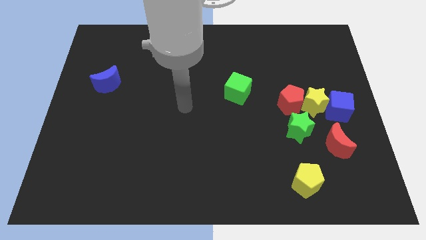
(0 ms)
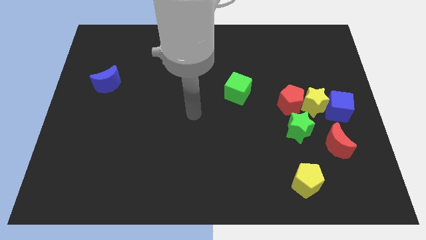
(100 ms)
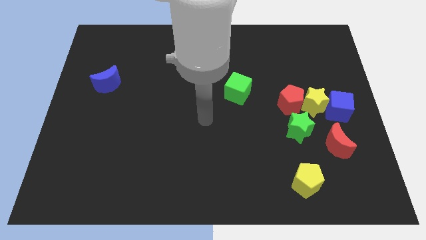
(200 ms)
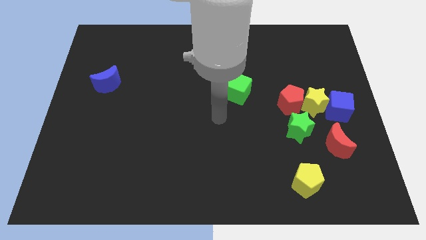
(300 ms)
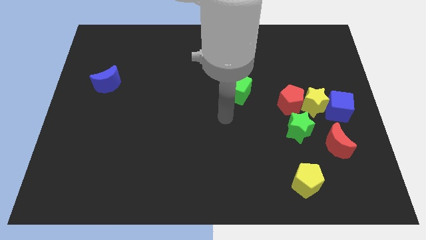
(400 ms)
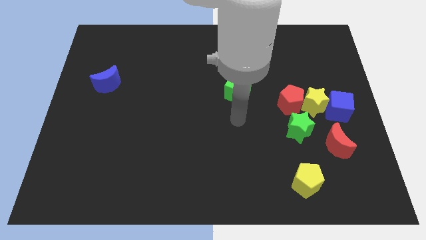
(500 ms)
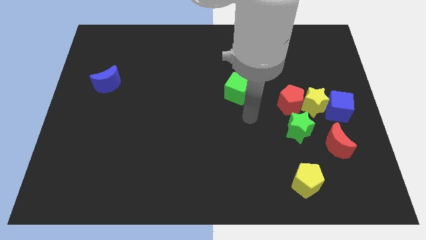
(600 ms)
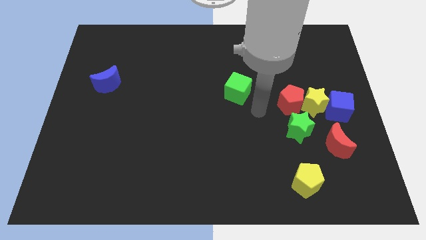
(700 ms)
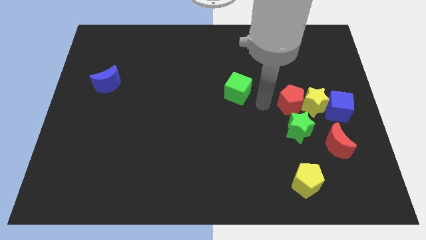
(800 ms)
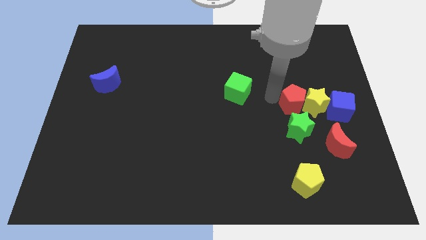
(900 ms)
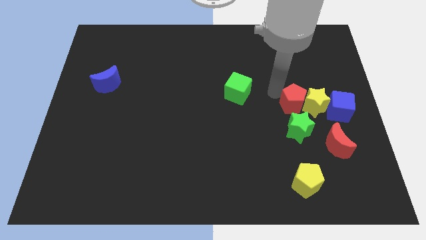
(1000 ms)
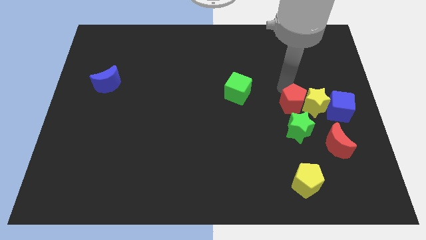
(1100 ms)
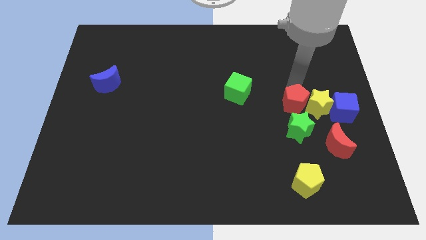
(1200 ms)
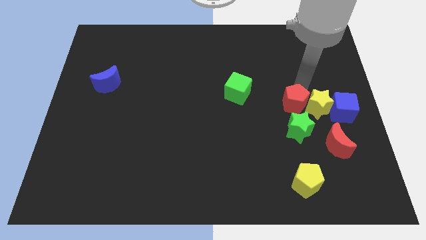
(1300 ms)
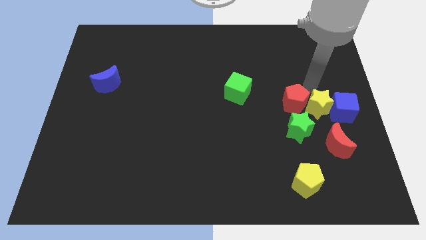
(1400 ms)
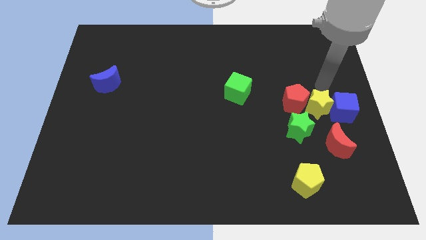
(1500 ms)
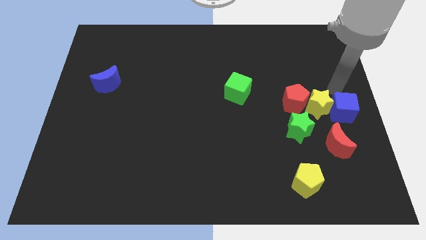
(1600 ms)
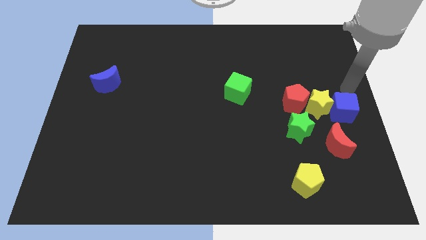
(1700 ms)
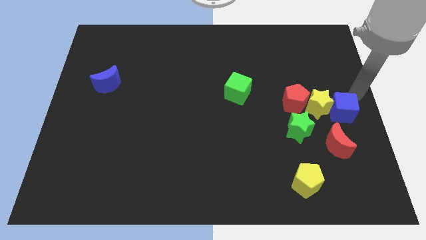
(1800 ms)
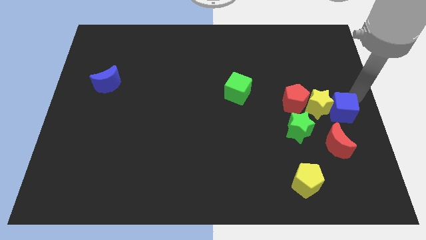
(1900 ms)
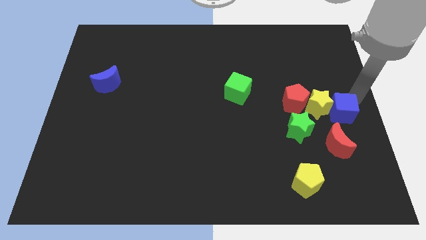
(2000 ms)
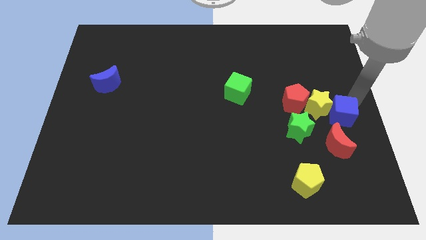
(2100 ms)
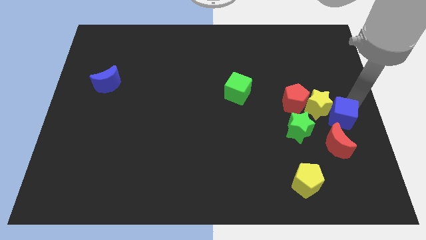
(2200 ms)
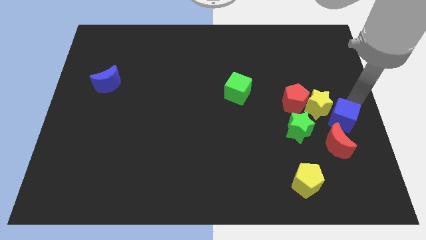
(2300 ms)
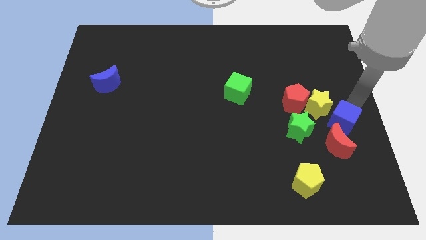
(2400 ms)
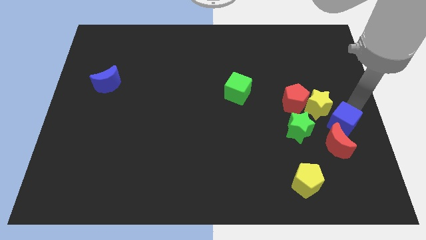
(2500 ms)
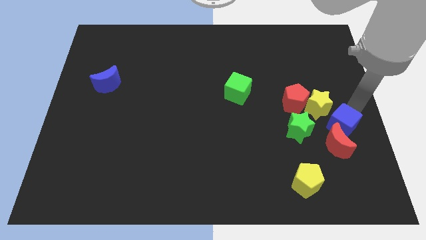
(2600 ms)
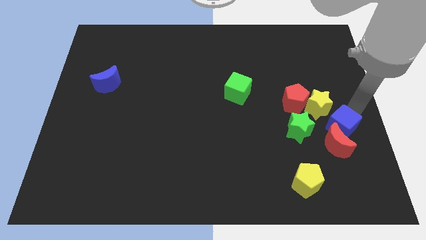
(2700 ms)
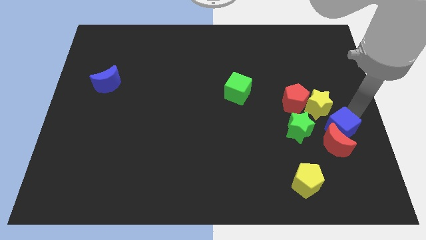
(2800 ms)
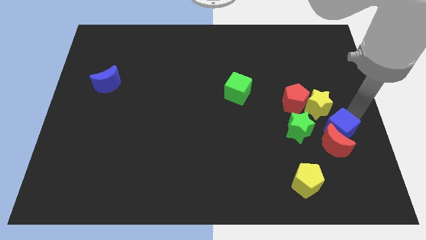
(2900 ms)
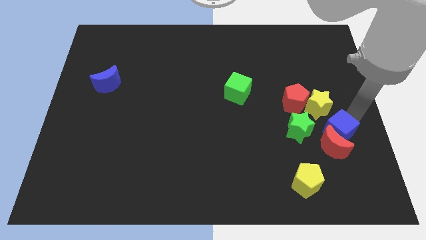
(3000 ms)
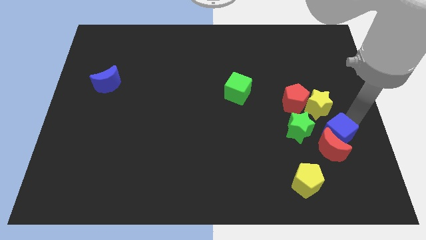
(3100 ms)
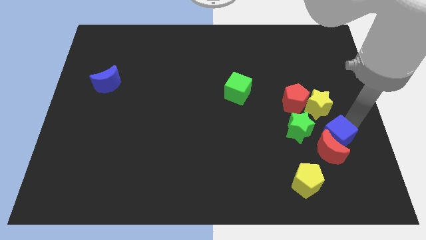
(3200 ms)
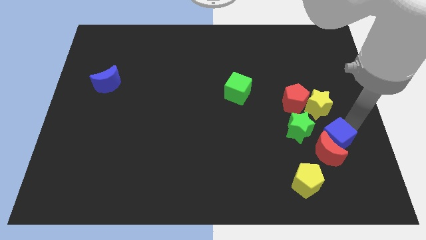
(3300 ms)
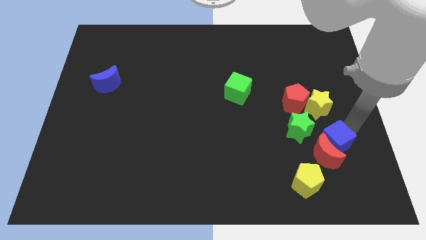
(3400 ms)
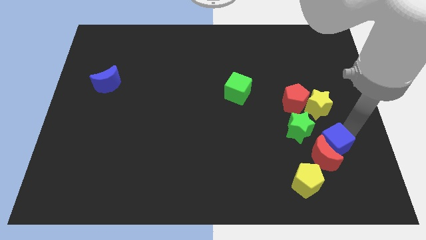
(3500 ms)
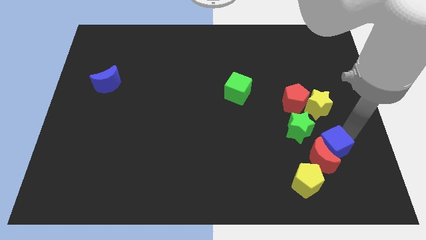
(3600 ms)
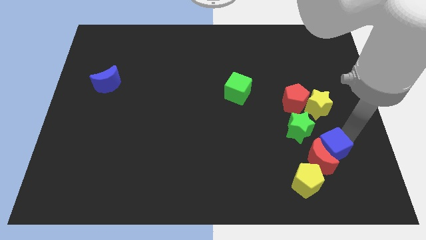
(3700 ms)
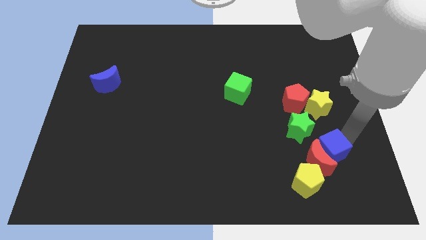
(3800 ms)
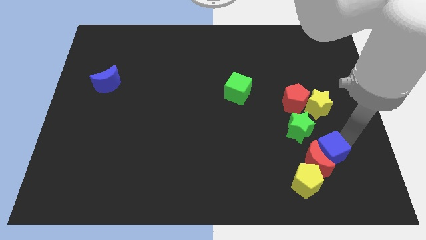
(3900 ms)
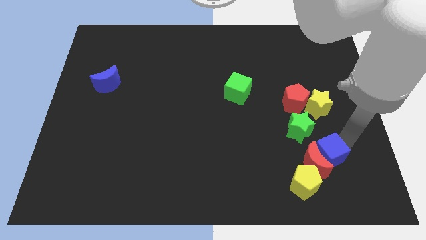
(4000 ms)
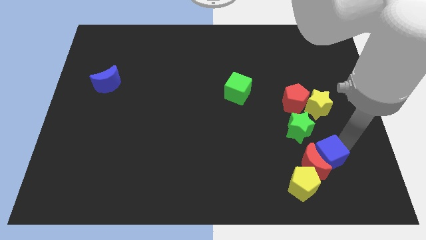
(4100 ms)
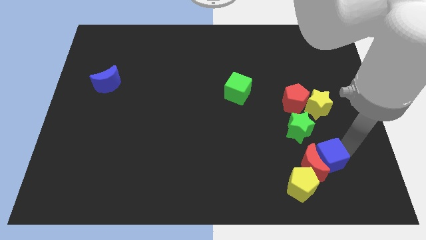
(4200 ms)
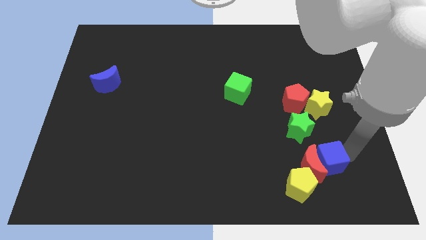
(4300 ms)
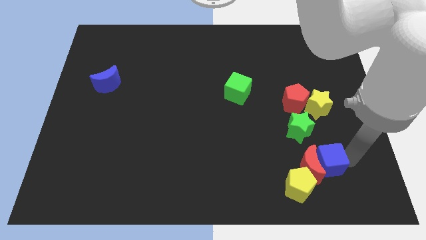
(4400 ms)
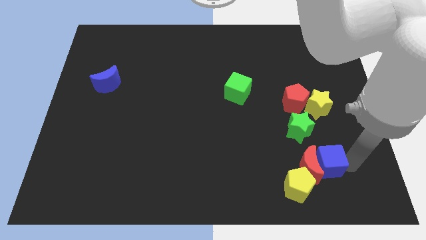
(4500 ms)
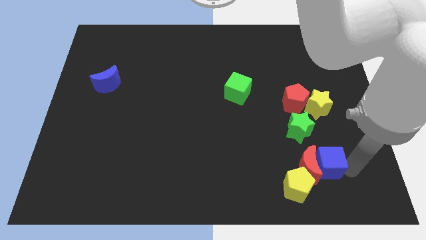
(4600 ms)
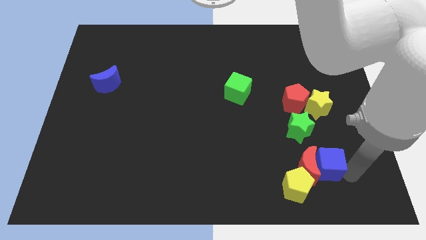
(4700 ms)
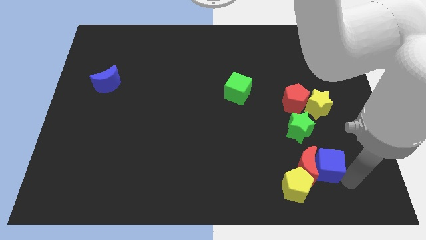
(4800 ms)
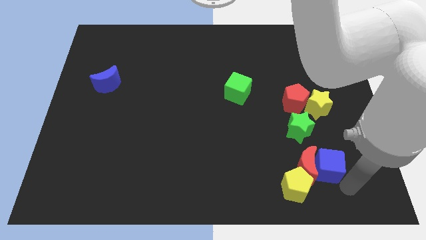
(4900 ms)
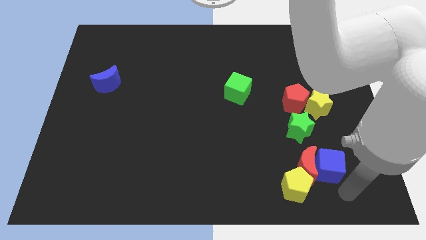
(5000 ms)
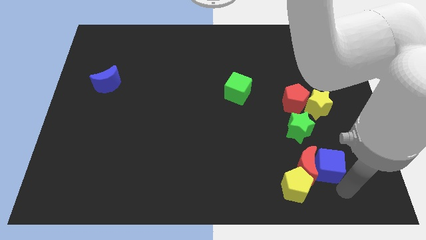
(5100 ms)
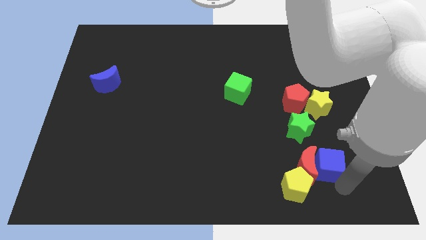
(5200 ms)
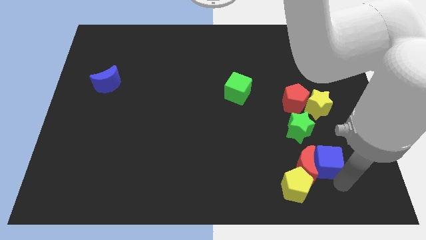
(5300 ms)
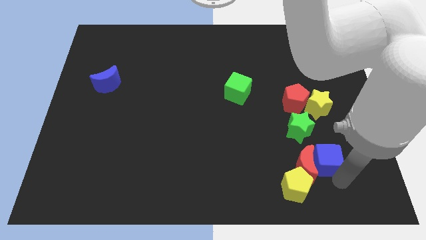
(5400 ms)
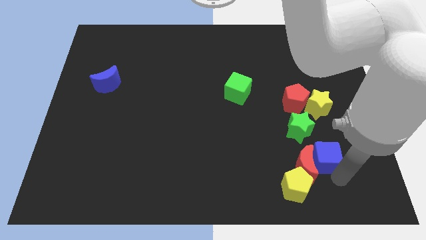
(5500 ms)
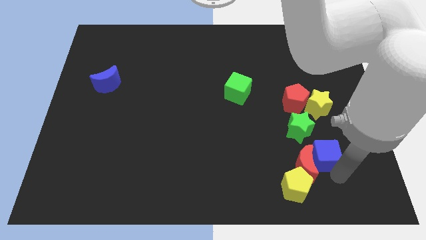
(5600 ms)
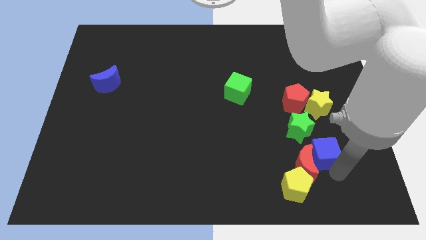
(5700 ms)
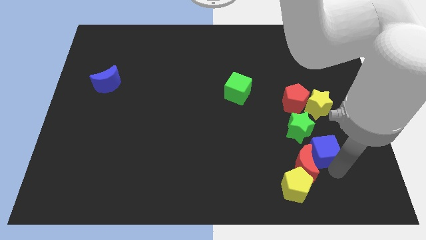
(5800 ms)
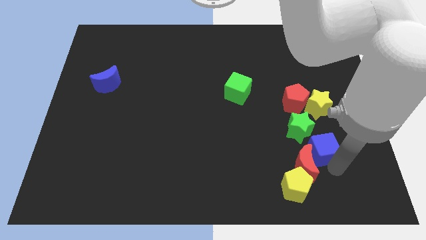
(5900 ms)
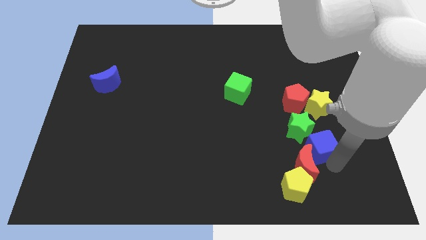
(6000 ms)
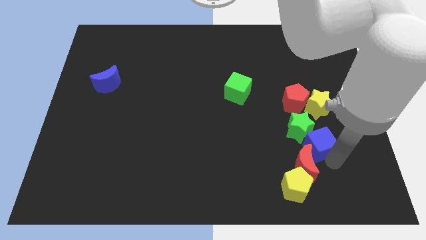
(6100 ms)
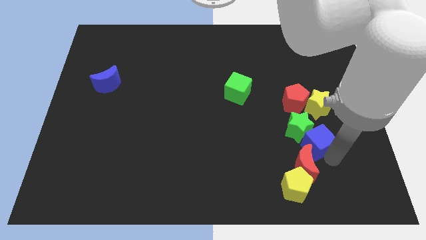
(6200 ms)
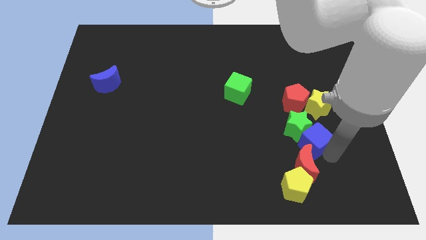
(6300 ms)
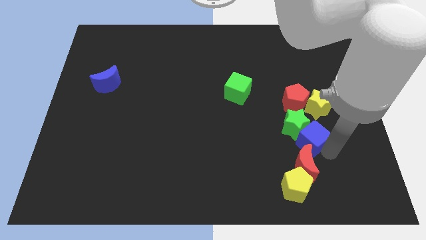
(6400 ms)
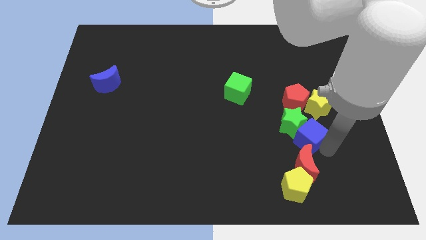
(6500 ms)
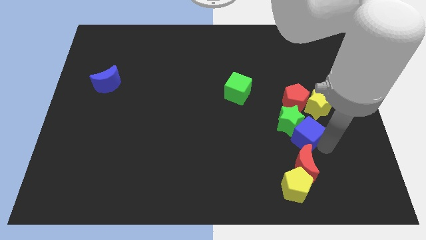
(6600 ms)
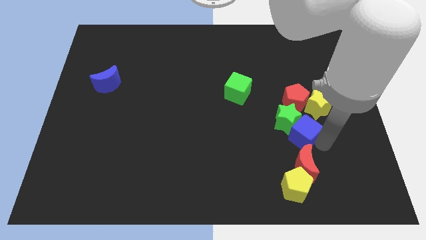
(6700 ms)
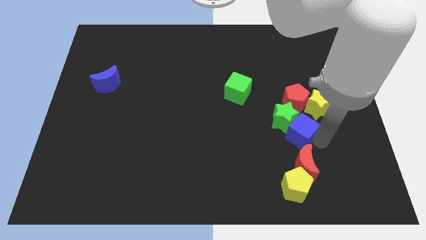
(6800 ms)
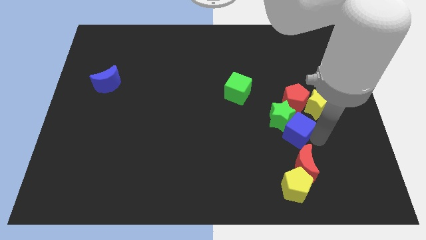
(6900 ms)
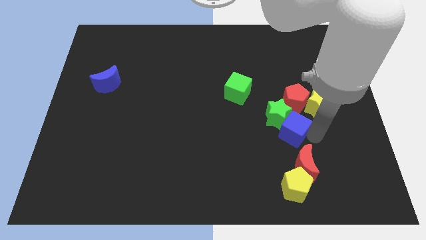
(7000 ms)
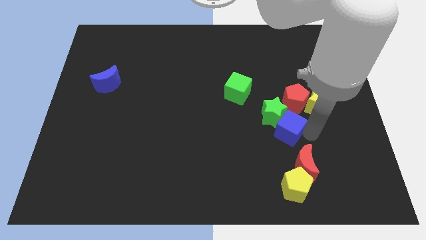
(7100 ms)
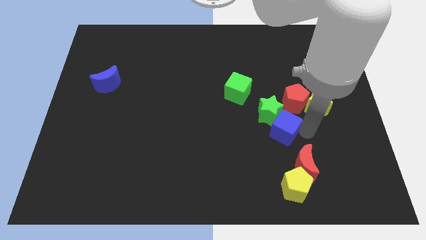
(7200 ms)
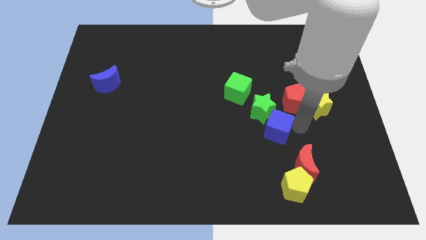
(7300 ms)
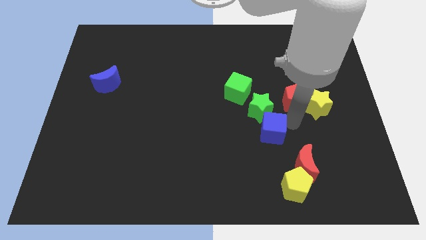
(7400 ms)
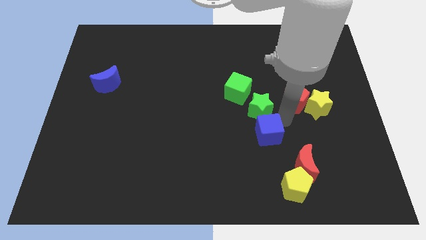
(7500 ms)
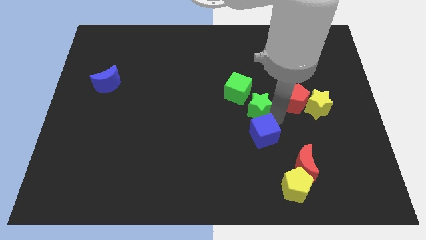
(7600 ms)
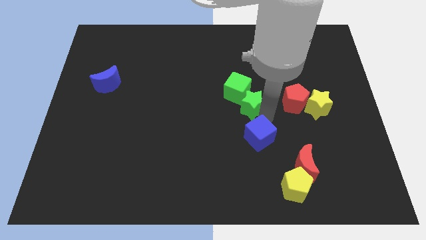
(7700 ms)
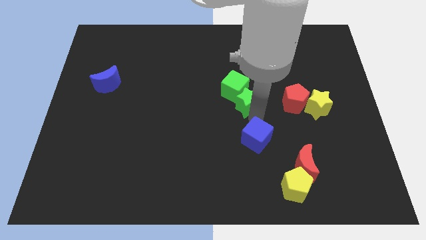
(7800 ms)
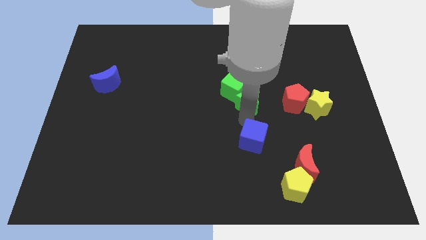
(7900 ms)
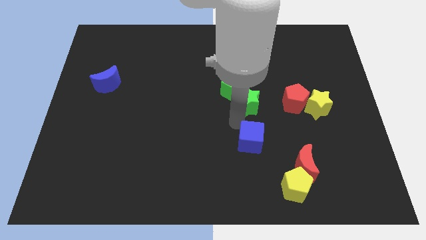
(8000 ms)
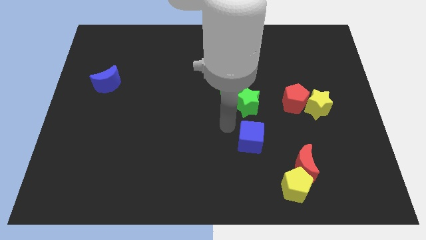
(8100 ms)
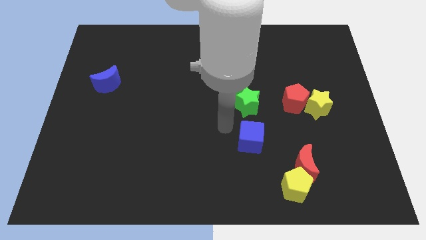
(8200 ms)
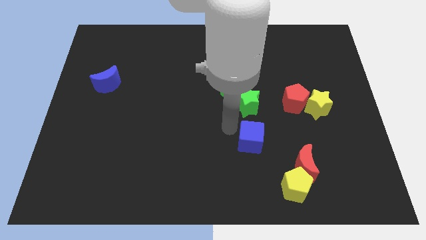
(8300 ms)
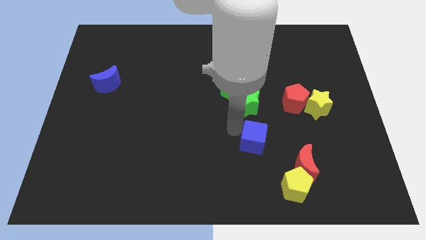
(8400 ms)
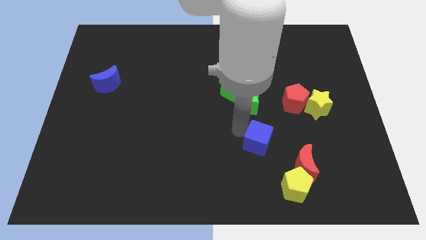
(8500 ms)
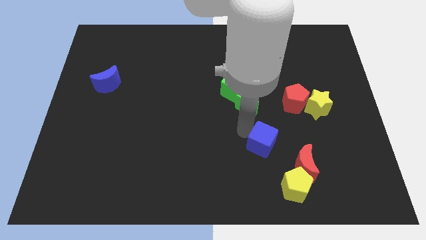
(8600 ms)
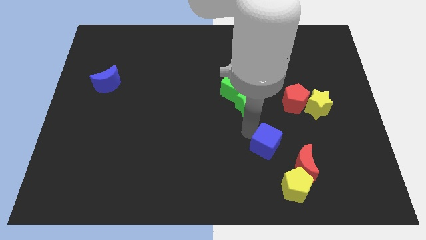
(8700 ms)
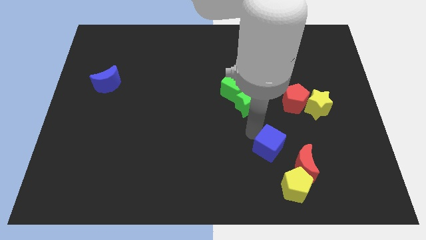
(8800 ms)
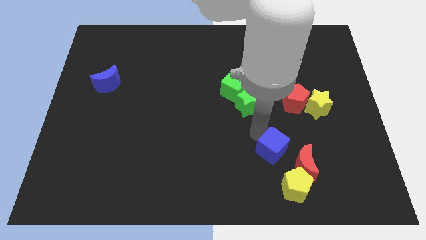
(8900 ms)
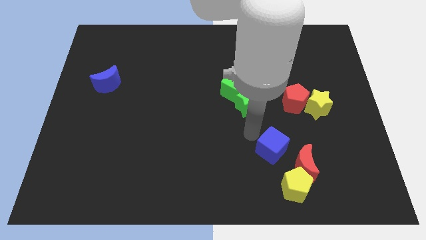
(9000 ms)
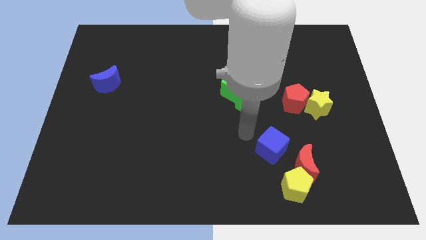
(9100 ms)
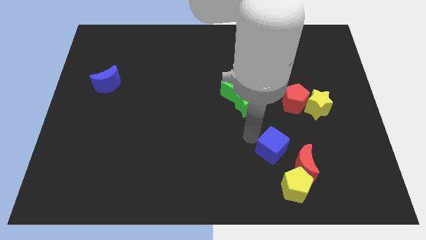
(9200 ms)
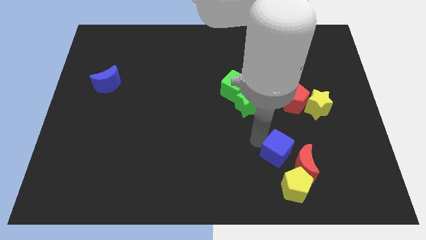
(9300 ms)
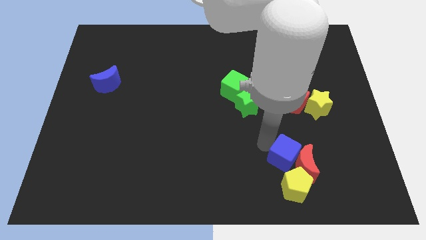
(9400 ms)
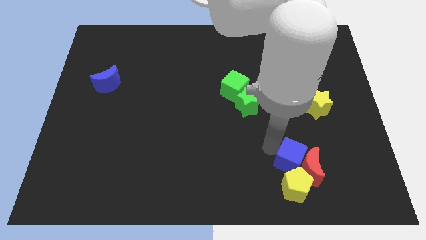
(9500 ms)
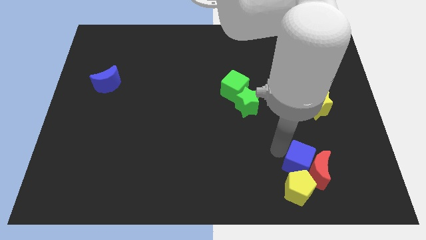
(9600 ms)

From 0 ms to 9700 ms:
put the blue cube to the yellow pentagon
